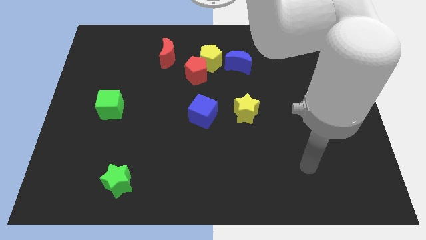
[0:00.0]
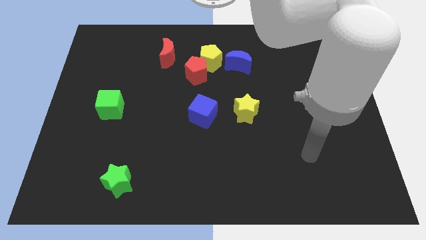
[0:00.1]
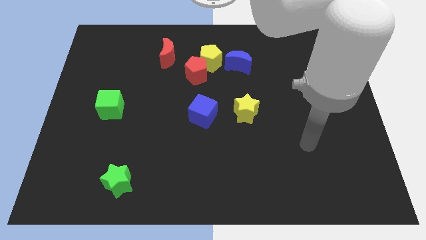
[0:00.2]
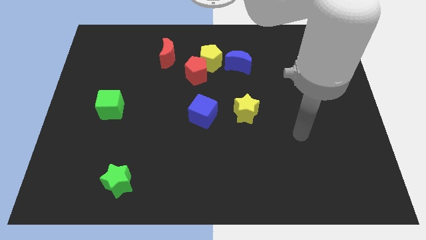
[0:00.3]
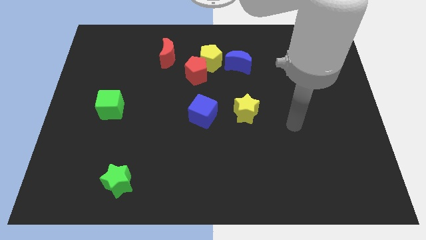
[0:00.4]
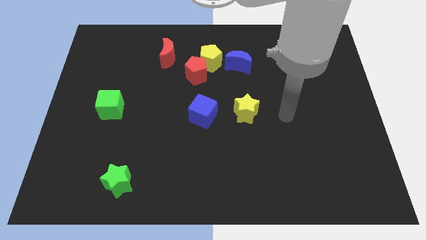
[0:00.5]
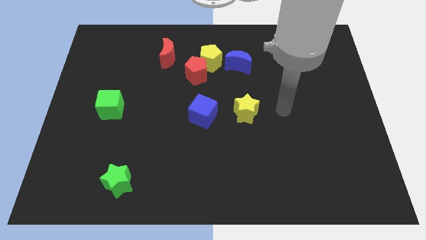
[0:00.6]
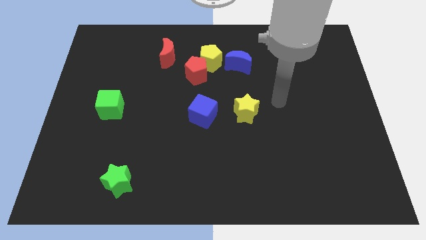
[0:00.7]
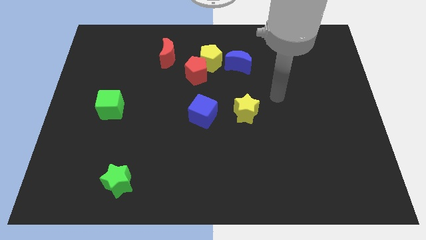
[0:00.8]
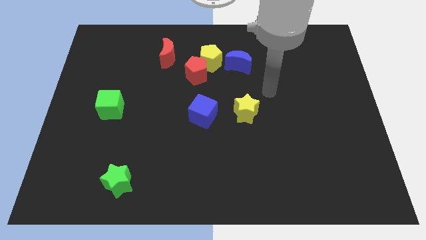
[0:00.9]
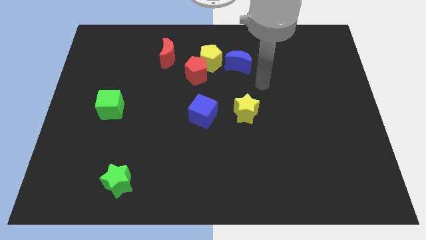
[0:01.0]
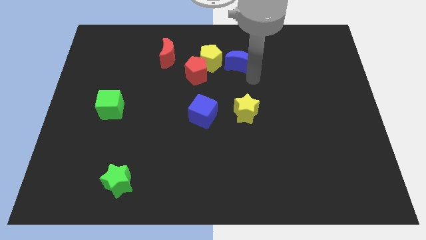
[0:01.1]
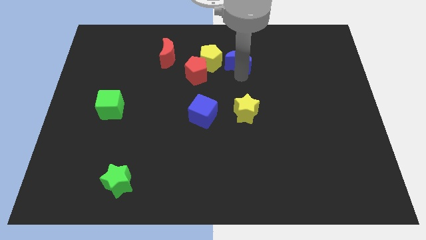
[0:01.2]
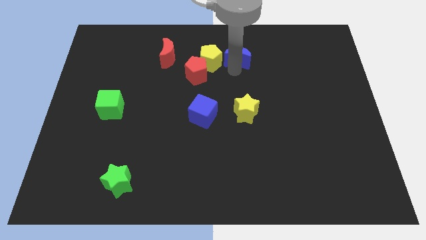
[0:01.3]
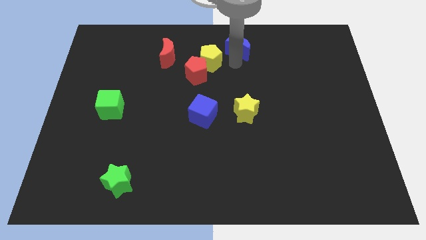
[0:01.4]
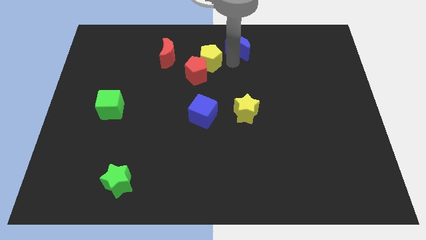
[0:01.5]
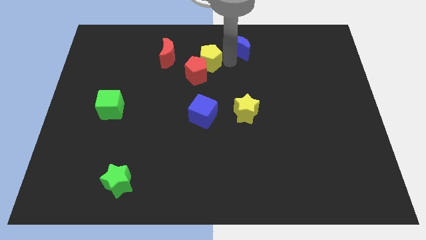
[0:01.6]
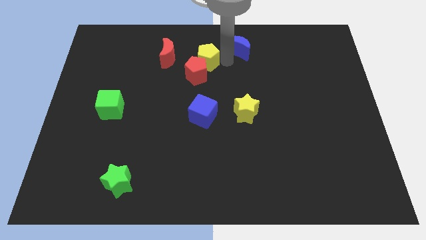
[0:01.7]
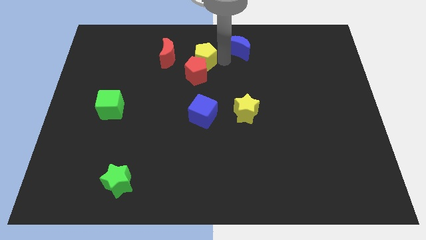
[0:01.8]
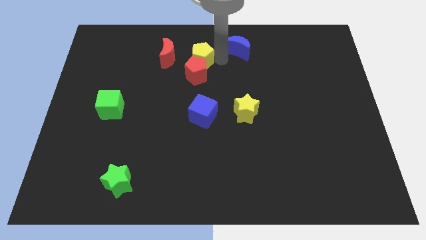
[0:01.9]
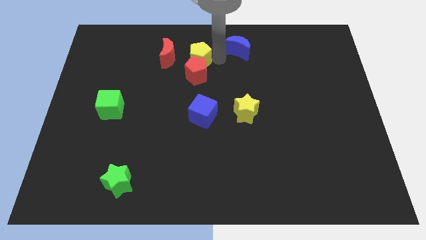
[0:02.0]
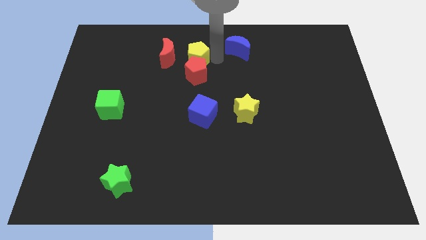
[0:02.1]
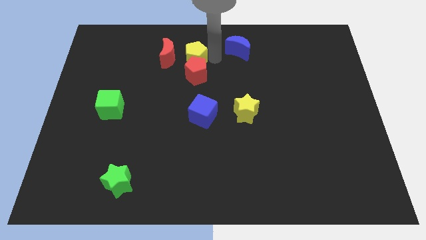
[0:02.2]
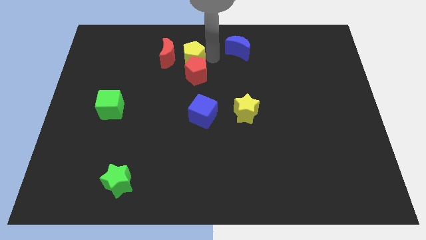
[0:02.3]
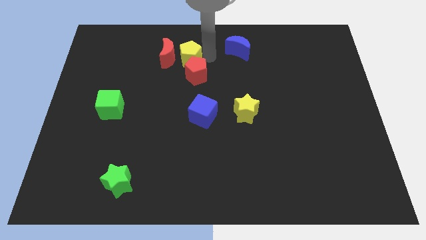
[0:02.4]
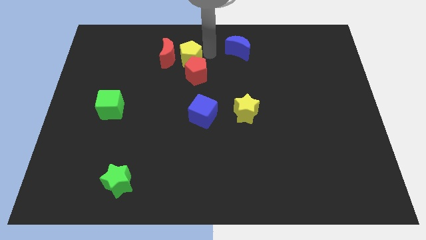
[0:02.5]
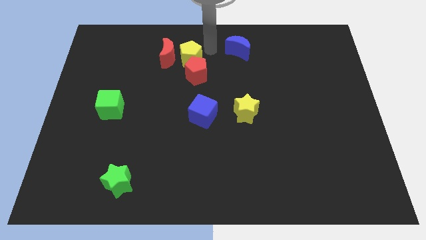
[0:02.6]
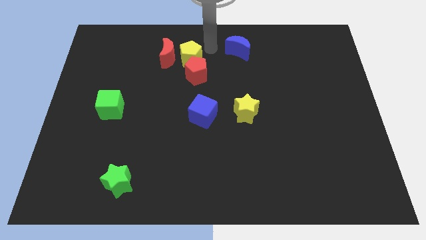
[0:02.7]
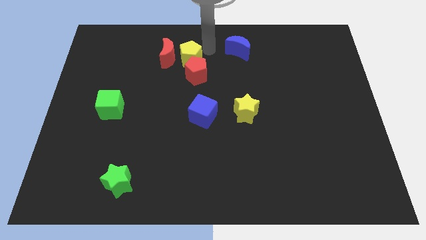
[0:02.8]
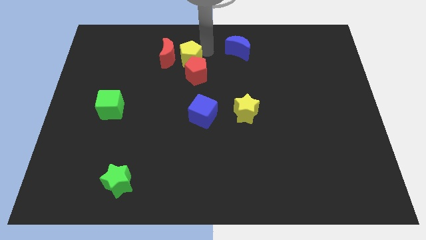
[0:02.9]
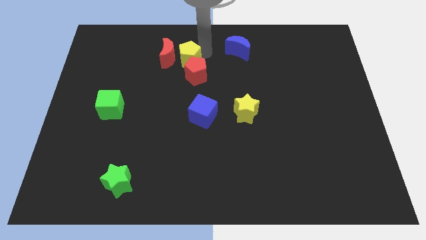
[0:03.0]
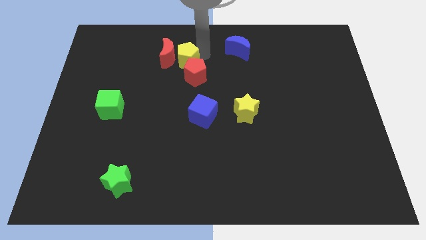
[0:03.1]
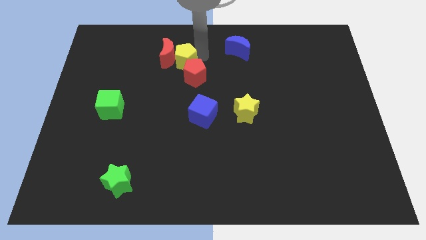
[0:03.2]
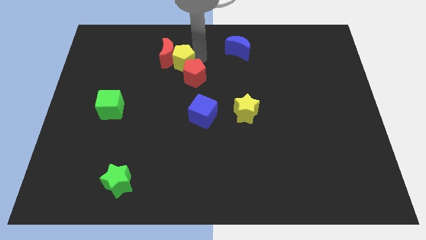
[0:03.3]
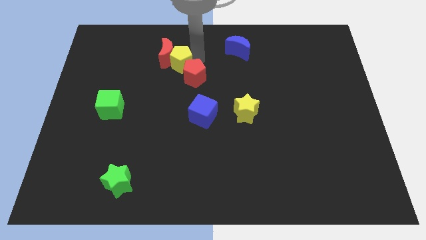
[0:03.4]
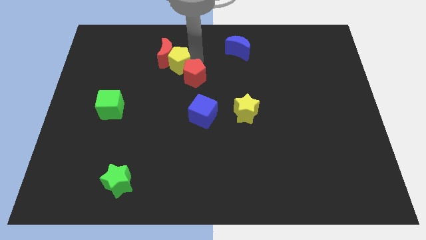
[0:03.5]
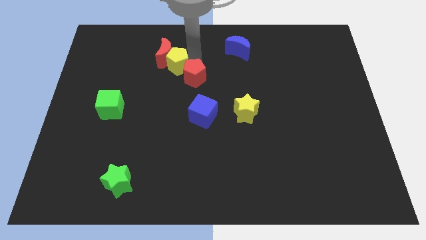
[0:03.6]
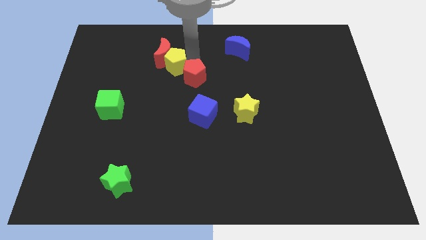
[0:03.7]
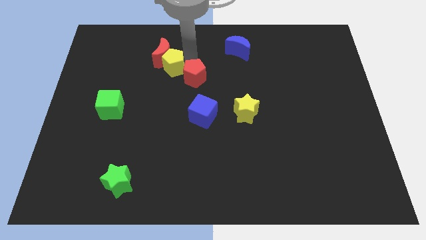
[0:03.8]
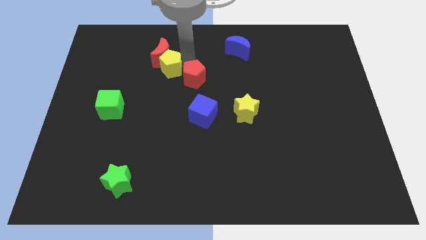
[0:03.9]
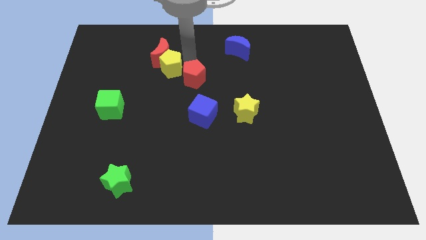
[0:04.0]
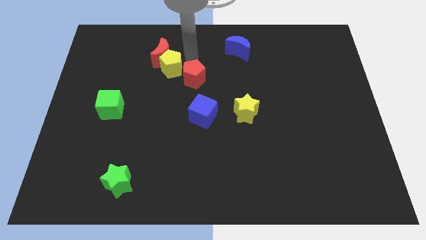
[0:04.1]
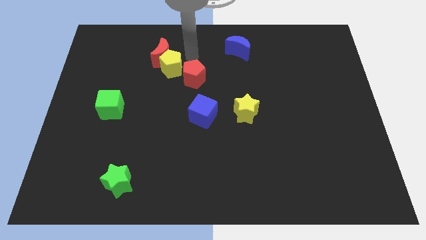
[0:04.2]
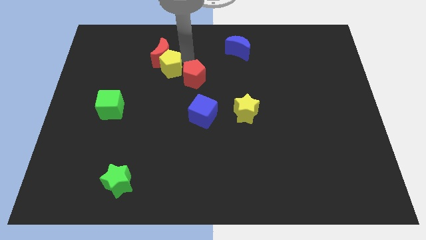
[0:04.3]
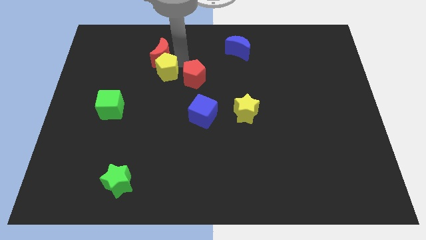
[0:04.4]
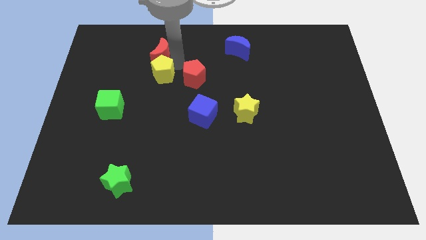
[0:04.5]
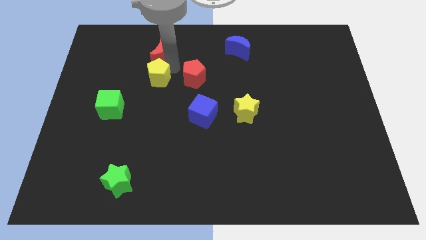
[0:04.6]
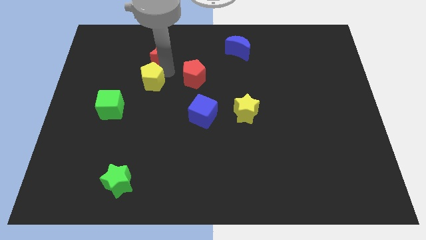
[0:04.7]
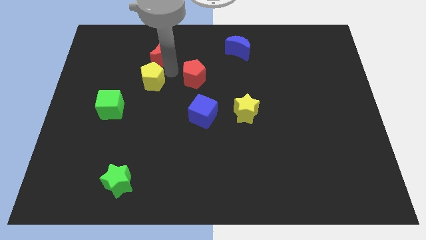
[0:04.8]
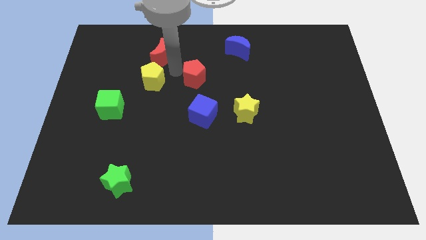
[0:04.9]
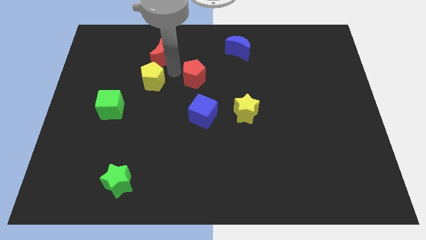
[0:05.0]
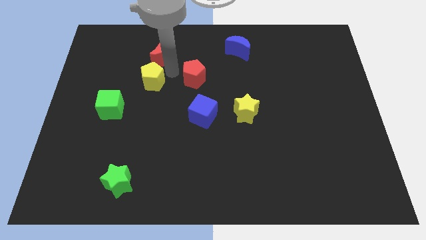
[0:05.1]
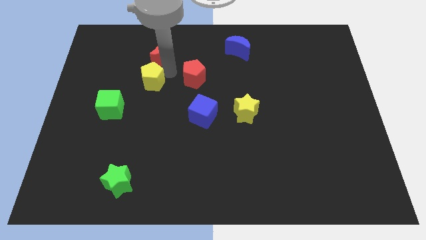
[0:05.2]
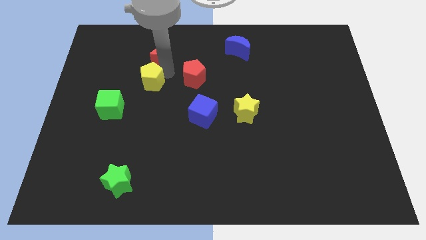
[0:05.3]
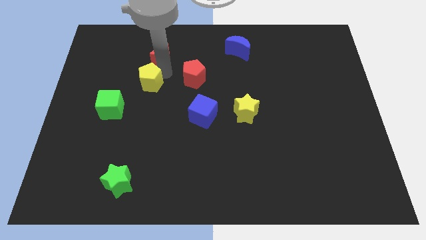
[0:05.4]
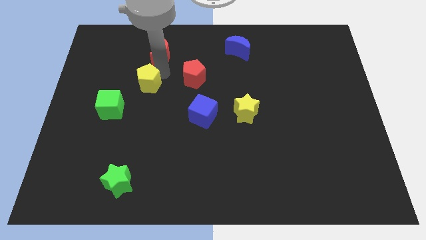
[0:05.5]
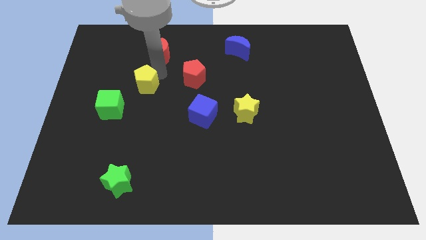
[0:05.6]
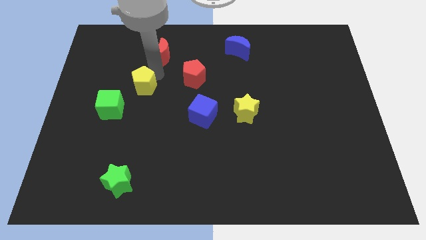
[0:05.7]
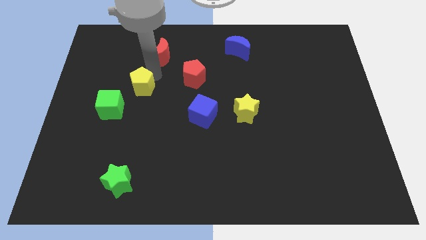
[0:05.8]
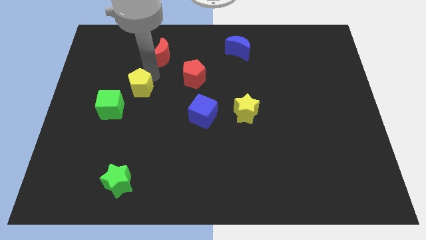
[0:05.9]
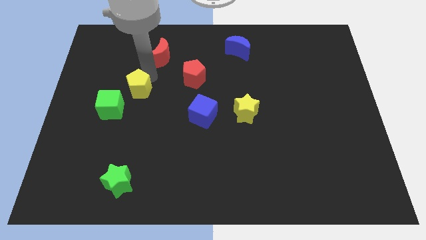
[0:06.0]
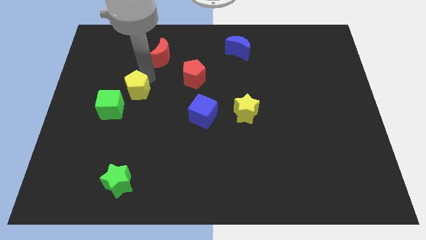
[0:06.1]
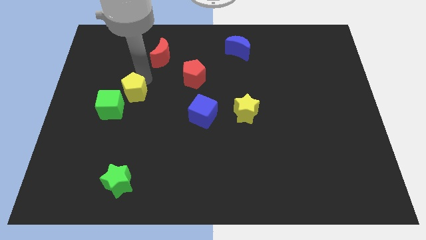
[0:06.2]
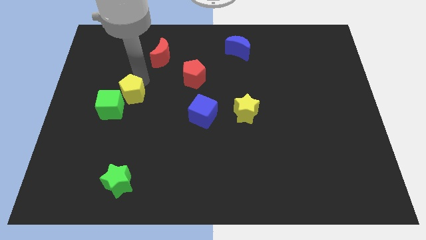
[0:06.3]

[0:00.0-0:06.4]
move the yellow pentagon to the green cube

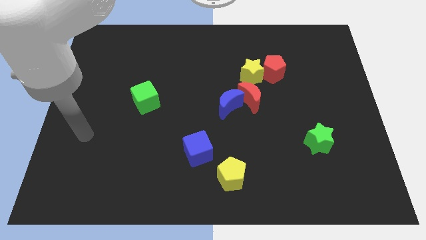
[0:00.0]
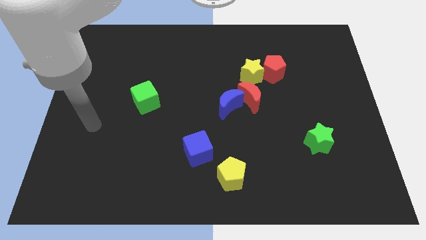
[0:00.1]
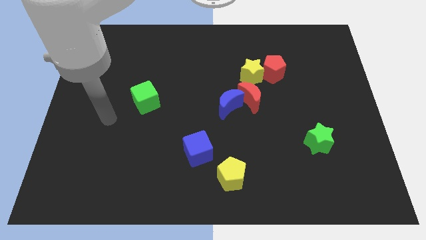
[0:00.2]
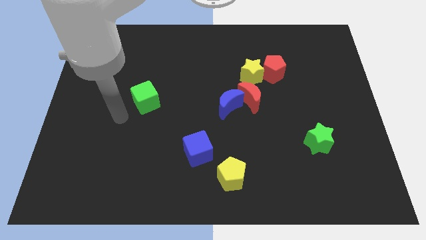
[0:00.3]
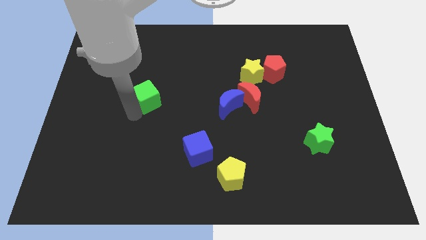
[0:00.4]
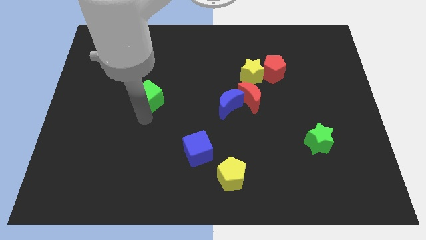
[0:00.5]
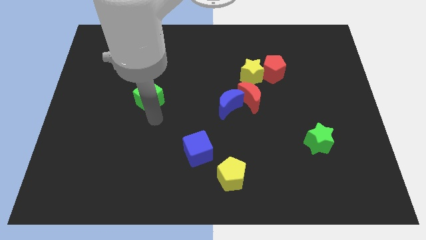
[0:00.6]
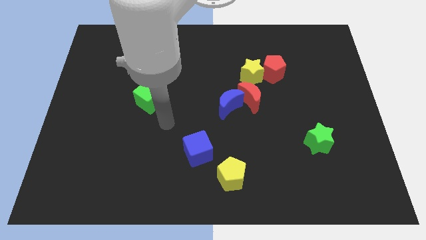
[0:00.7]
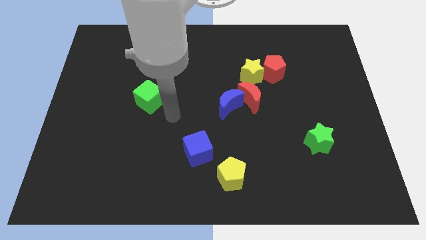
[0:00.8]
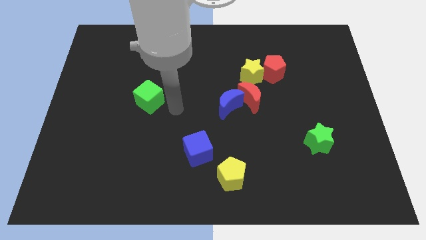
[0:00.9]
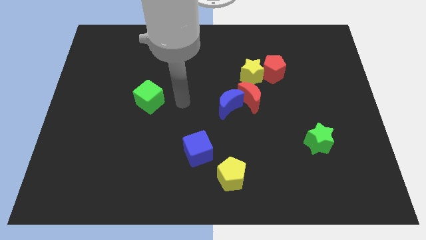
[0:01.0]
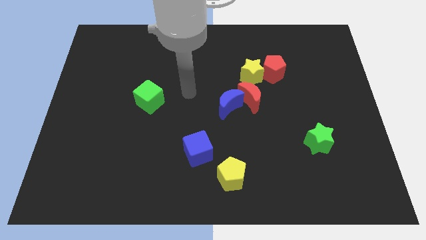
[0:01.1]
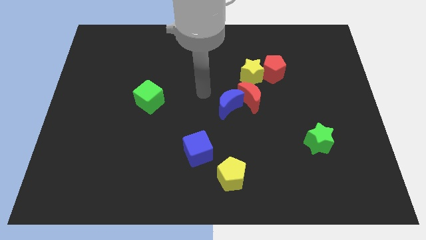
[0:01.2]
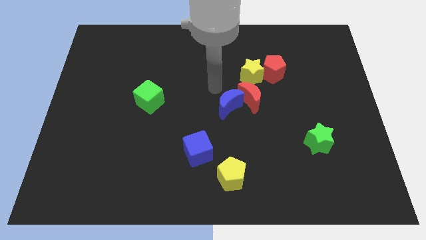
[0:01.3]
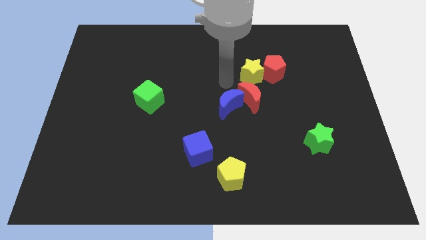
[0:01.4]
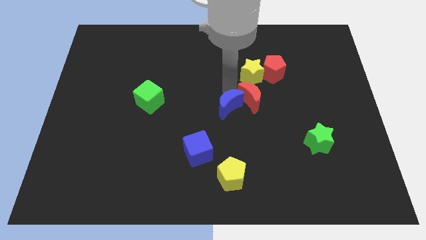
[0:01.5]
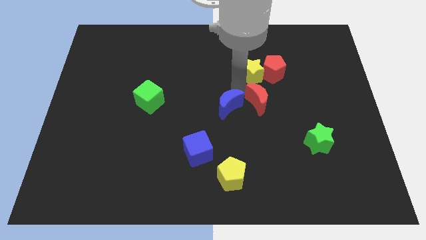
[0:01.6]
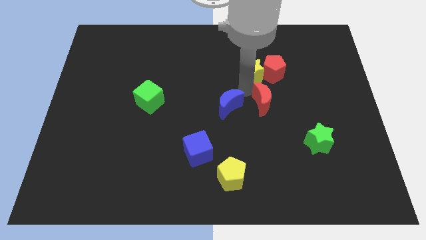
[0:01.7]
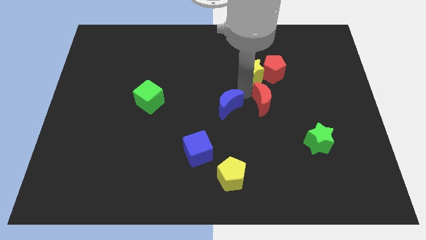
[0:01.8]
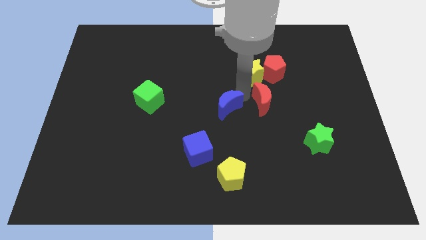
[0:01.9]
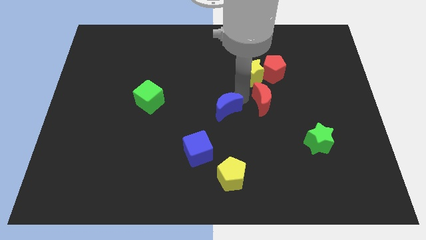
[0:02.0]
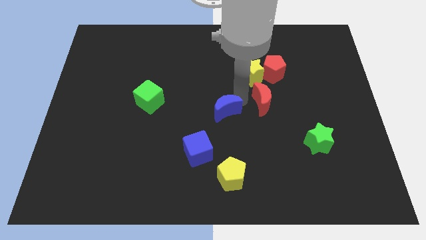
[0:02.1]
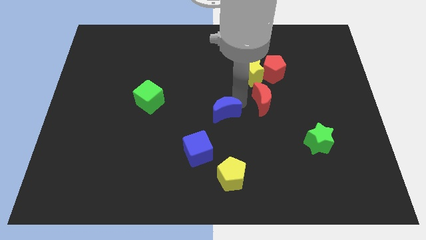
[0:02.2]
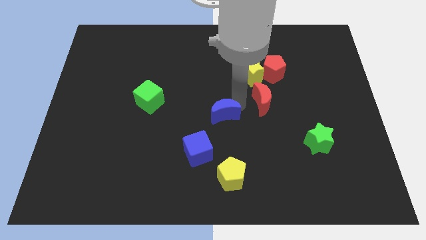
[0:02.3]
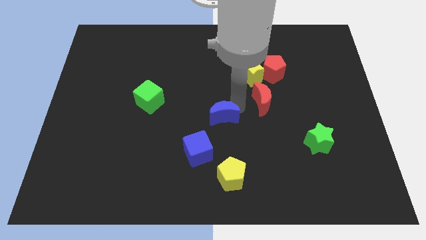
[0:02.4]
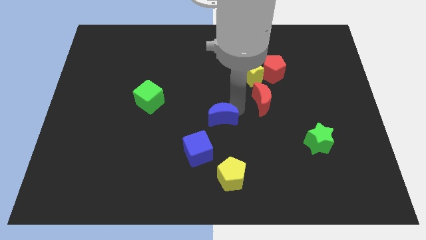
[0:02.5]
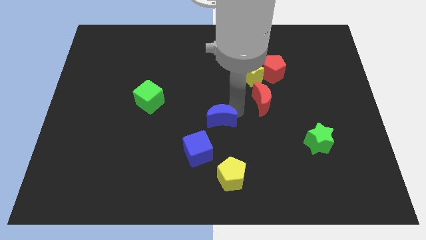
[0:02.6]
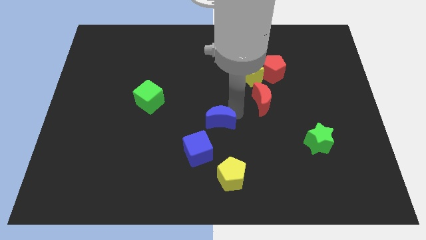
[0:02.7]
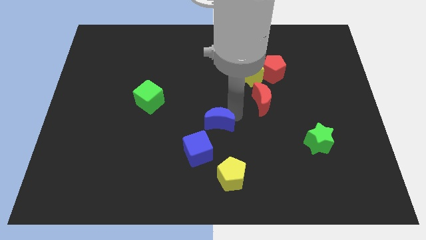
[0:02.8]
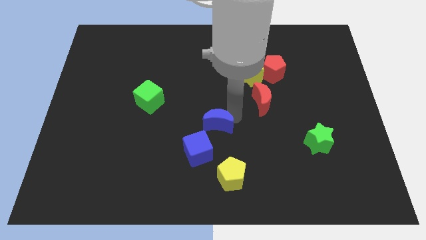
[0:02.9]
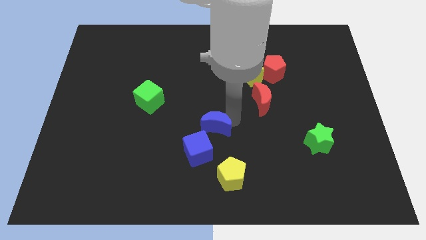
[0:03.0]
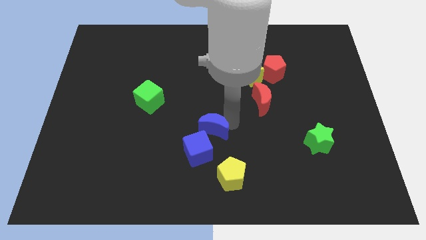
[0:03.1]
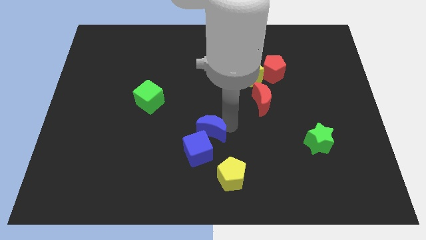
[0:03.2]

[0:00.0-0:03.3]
slide the blue moon to the blue cube
